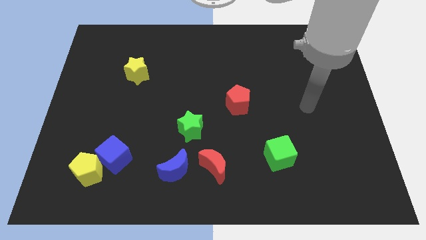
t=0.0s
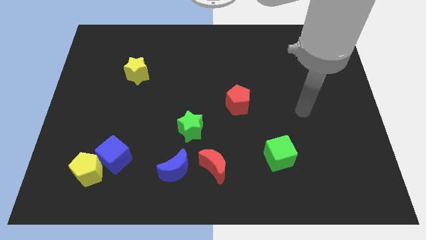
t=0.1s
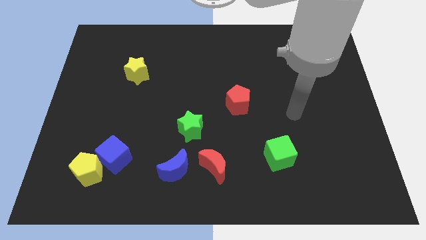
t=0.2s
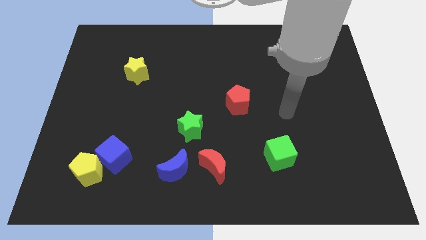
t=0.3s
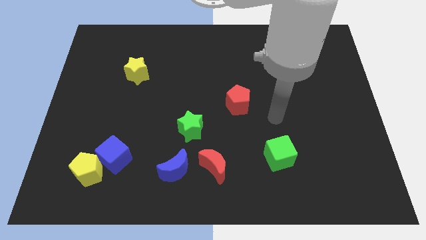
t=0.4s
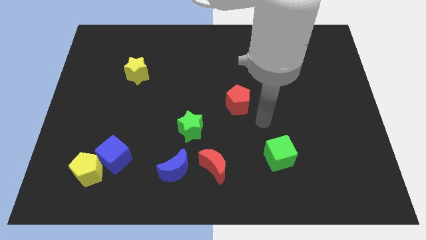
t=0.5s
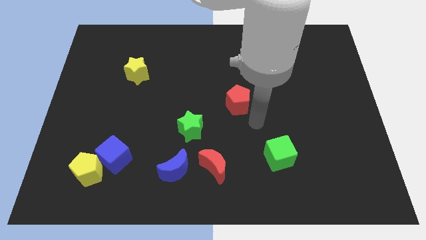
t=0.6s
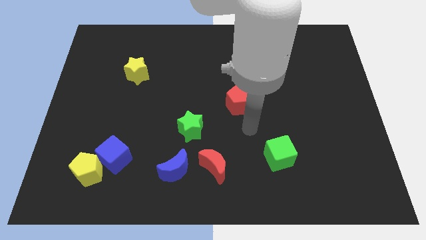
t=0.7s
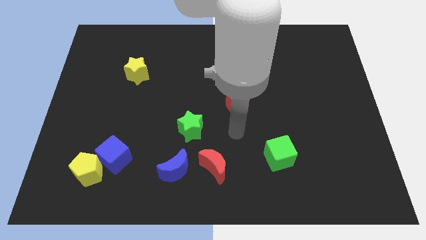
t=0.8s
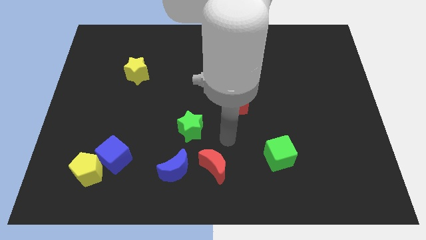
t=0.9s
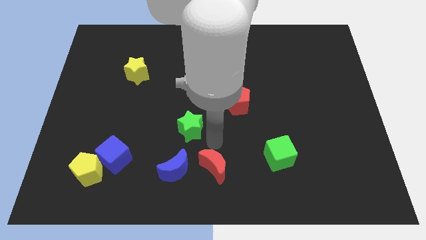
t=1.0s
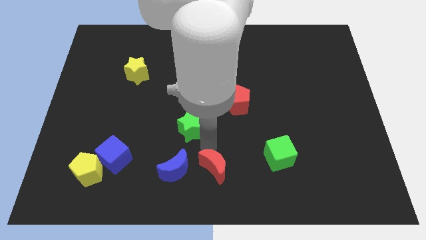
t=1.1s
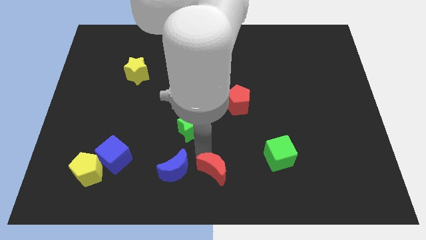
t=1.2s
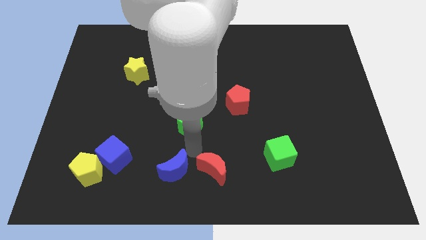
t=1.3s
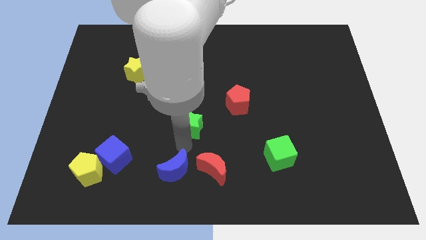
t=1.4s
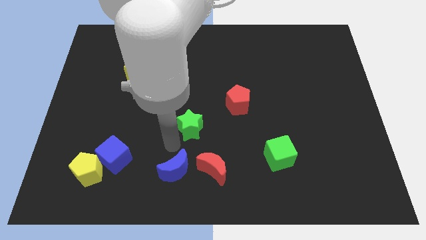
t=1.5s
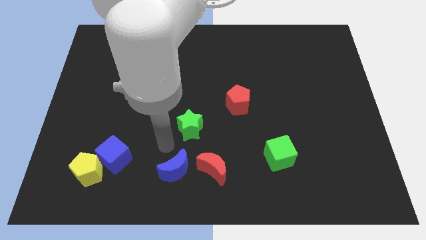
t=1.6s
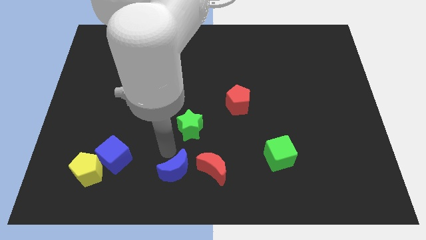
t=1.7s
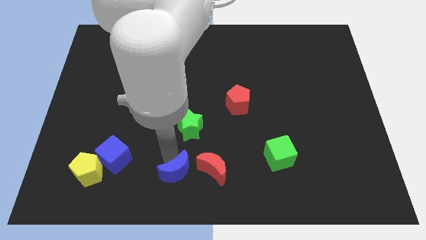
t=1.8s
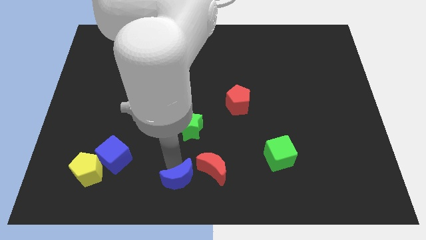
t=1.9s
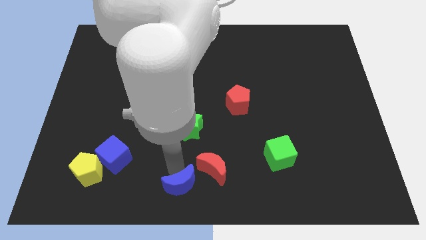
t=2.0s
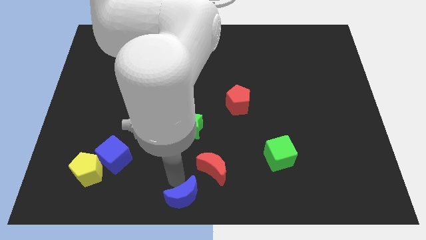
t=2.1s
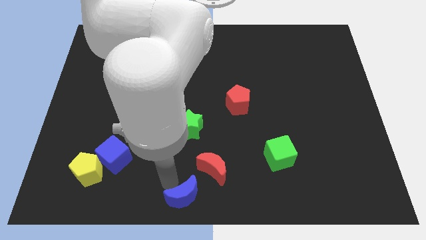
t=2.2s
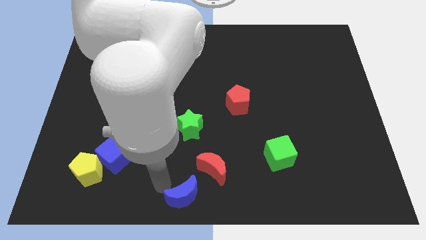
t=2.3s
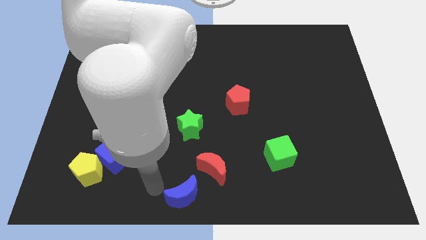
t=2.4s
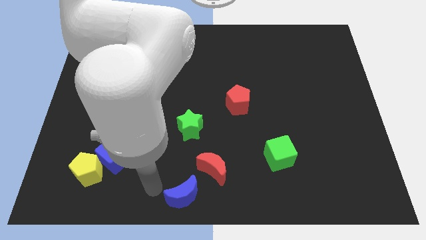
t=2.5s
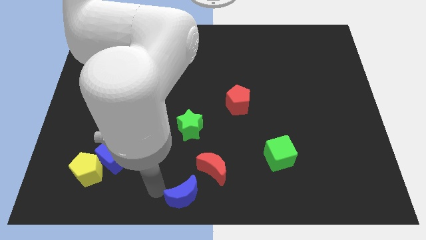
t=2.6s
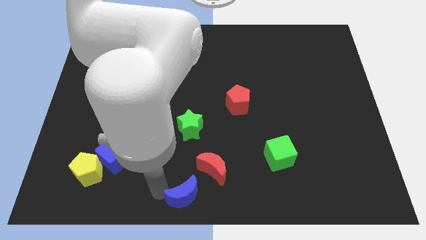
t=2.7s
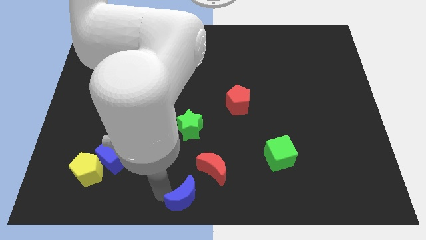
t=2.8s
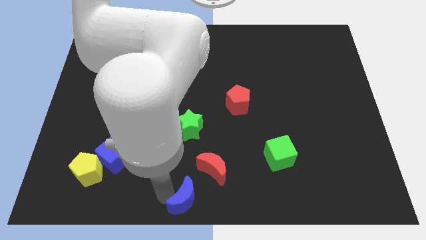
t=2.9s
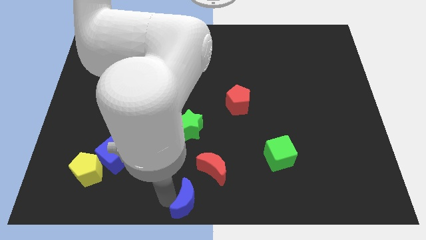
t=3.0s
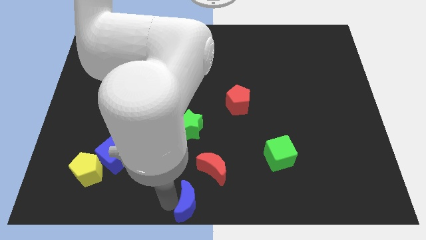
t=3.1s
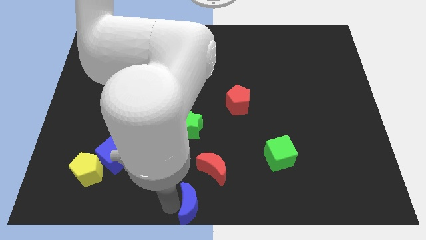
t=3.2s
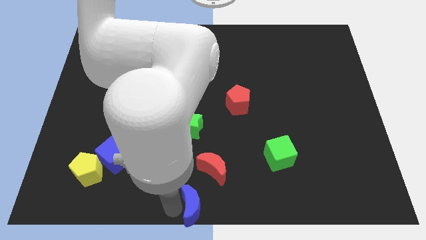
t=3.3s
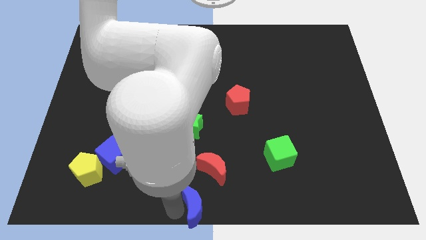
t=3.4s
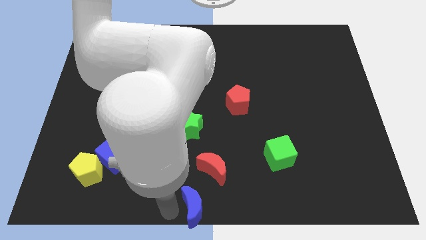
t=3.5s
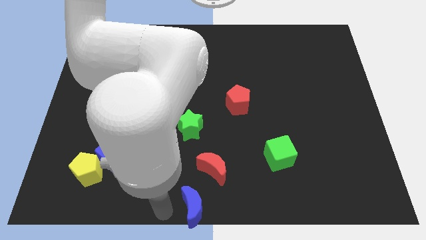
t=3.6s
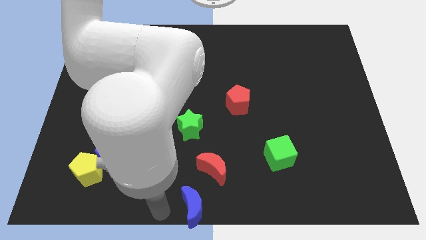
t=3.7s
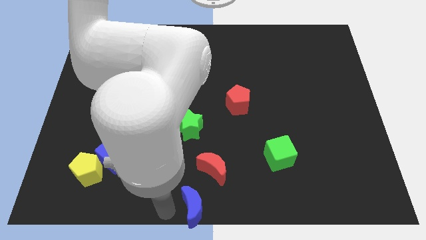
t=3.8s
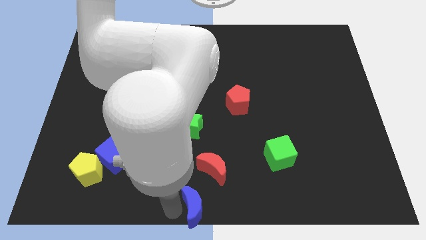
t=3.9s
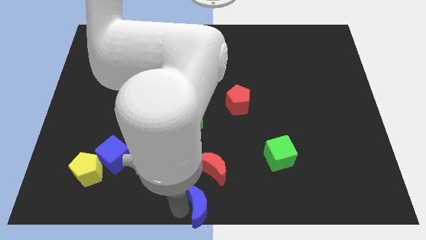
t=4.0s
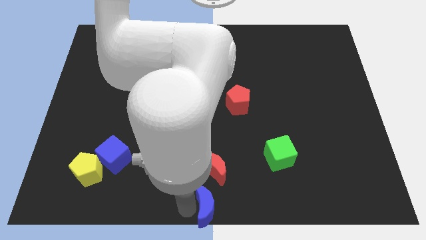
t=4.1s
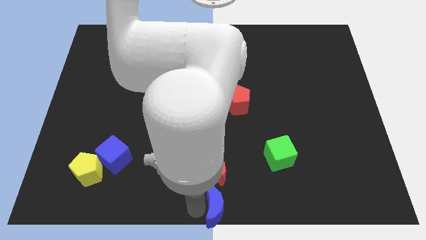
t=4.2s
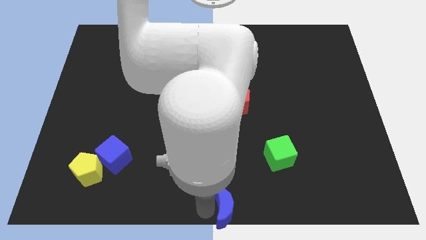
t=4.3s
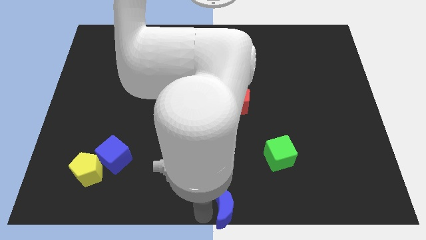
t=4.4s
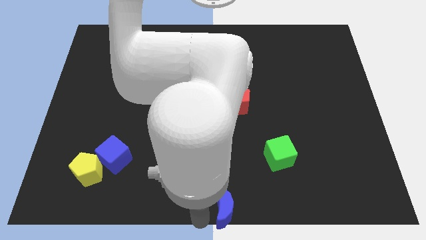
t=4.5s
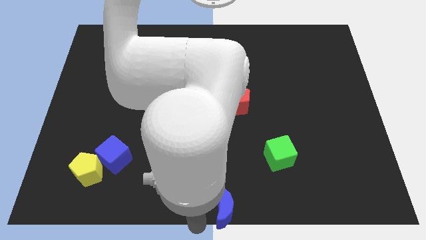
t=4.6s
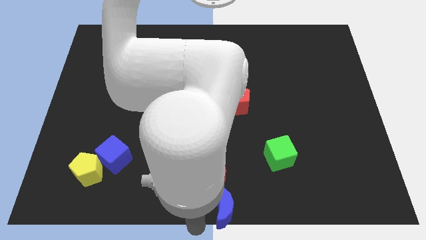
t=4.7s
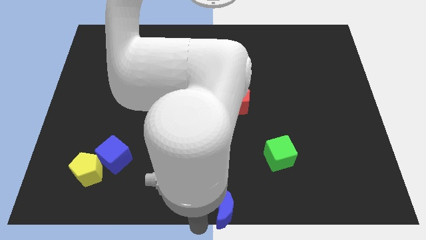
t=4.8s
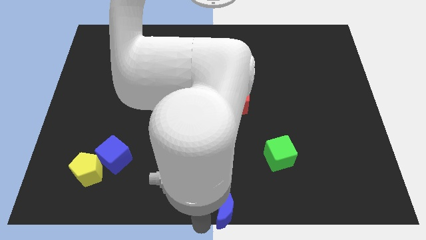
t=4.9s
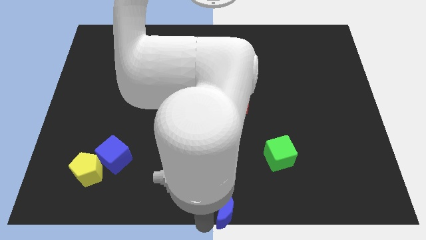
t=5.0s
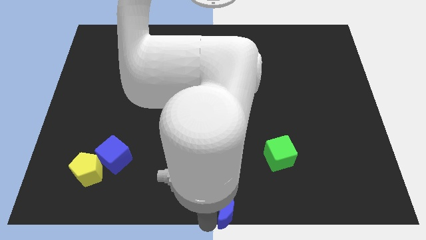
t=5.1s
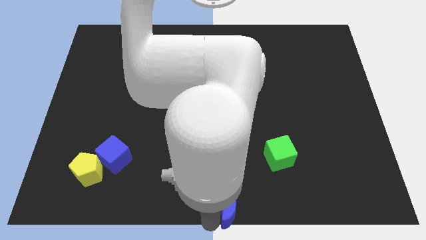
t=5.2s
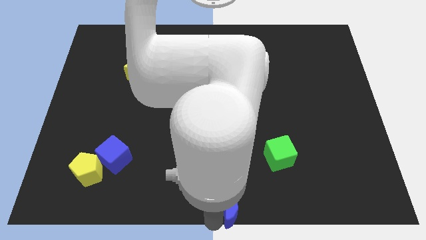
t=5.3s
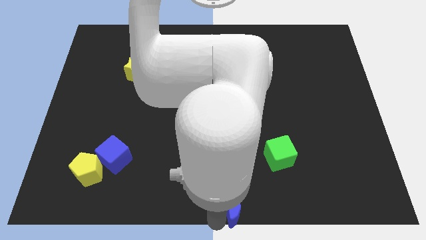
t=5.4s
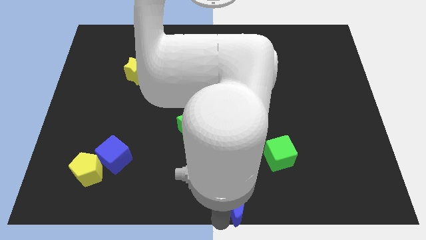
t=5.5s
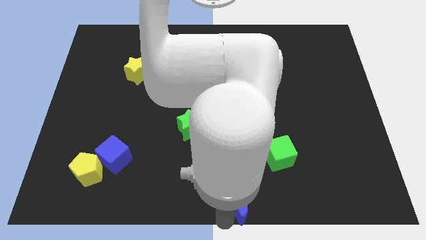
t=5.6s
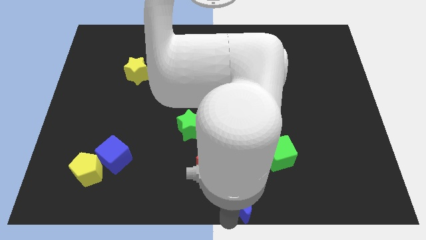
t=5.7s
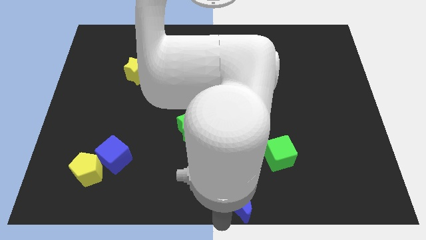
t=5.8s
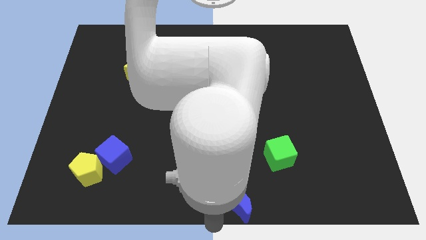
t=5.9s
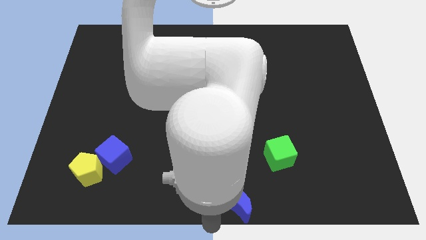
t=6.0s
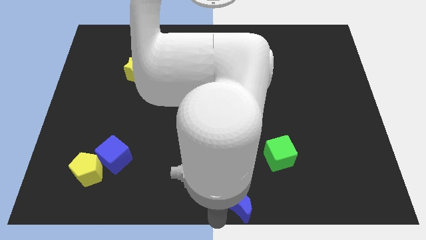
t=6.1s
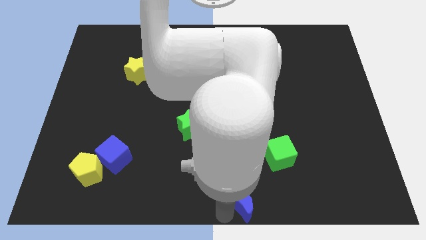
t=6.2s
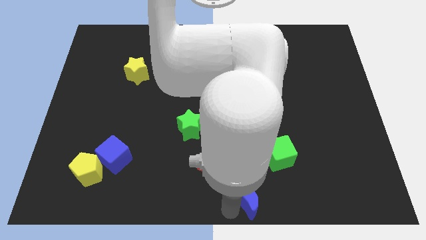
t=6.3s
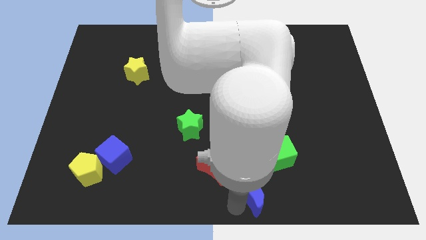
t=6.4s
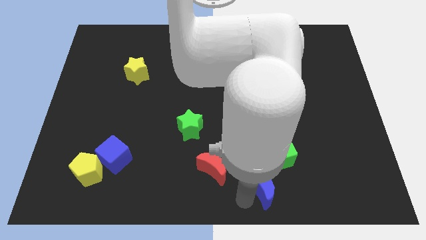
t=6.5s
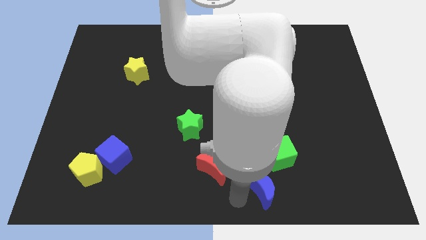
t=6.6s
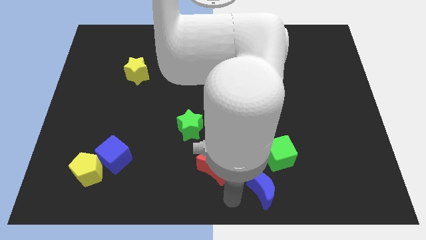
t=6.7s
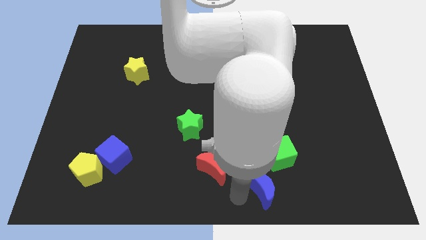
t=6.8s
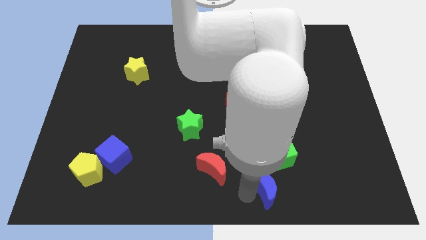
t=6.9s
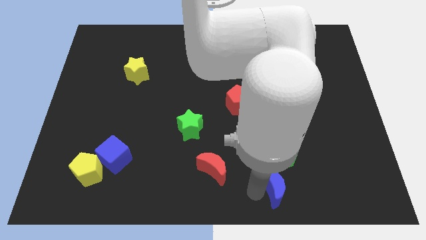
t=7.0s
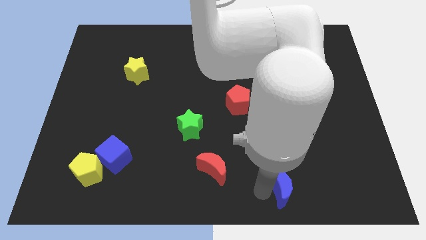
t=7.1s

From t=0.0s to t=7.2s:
slide the blue moon to the right

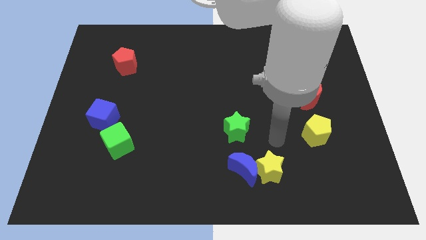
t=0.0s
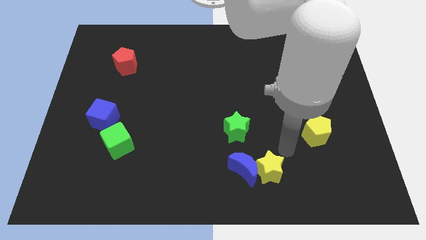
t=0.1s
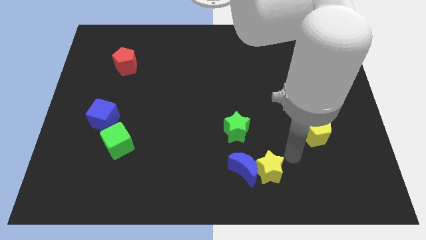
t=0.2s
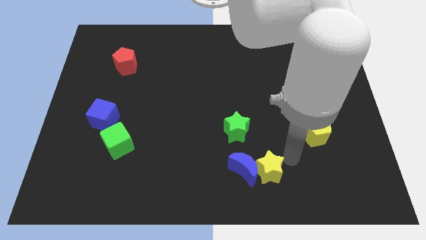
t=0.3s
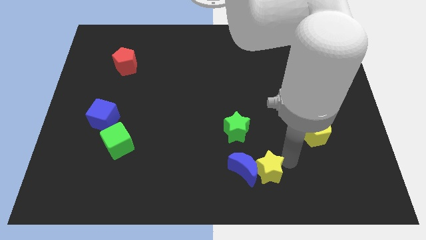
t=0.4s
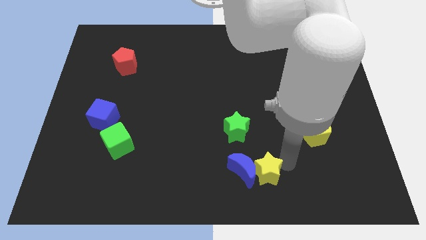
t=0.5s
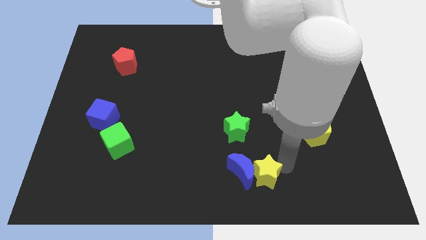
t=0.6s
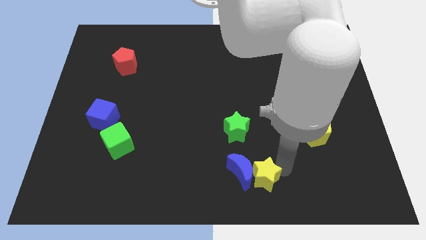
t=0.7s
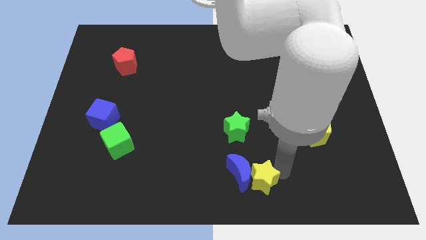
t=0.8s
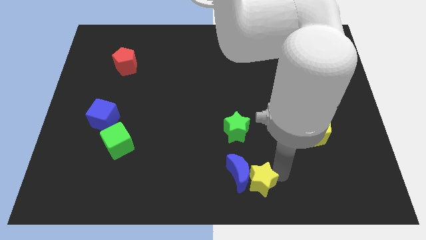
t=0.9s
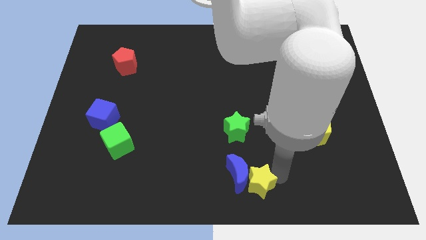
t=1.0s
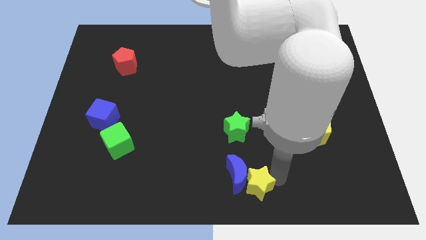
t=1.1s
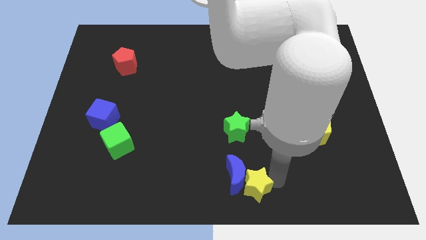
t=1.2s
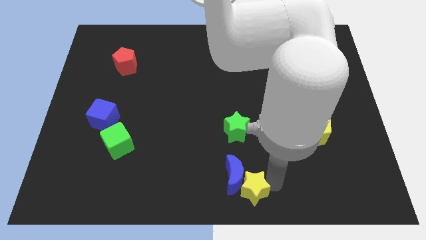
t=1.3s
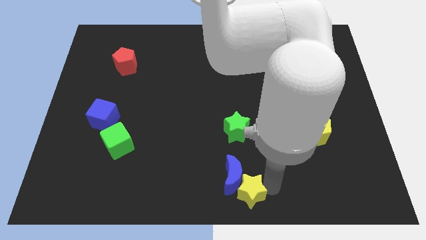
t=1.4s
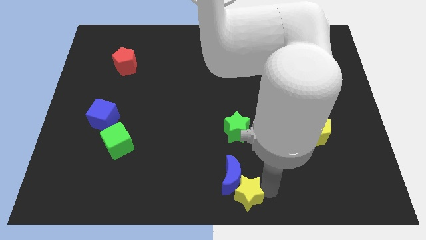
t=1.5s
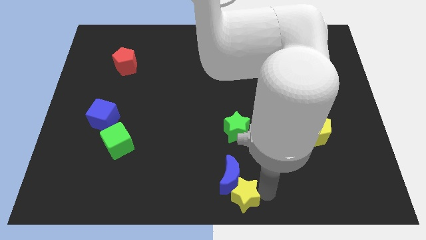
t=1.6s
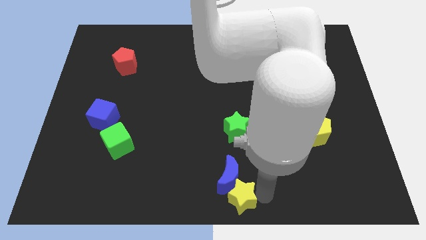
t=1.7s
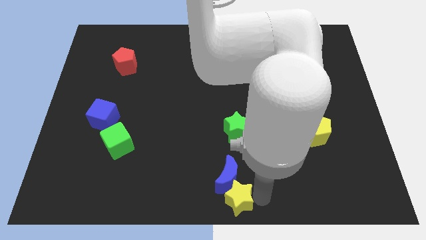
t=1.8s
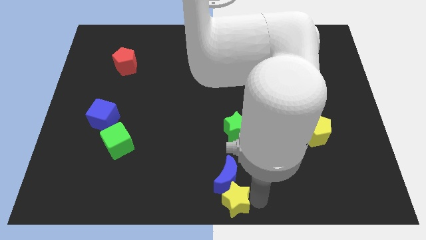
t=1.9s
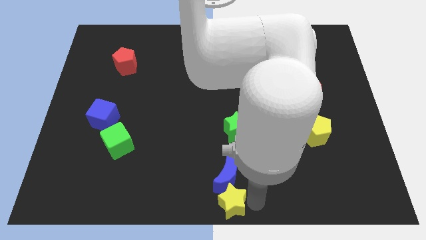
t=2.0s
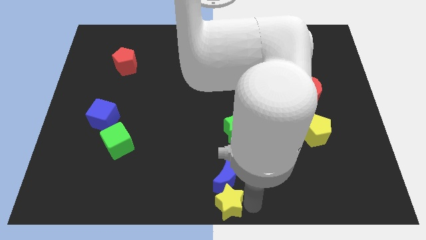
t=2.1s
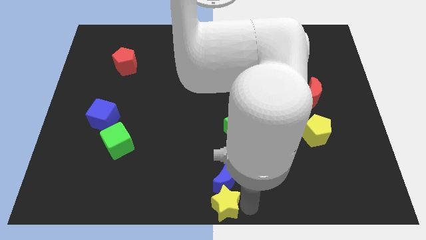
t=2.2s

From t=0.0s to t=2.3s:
push the yellow star a little to the left
